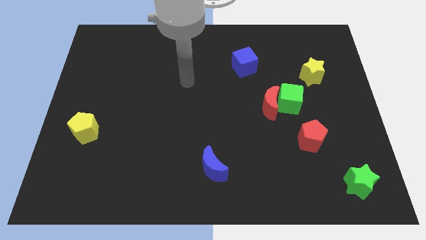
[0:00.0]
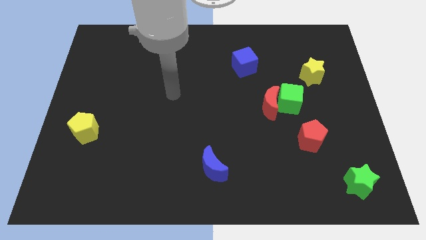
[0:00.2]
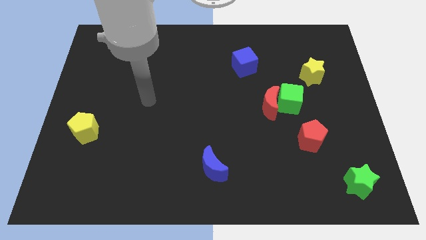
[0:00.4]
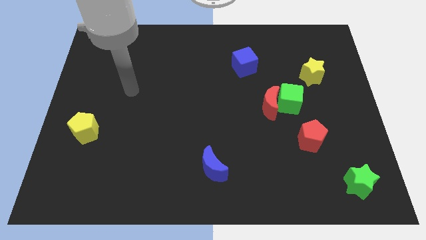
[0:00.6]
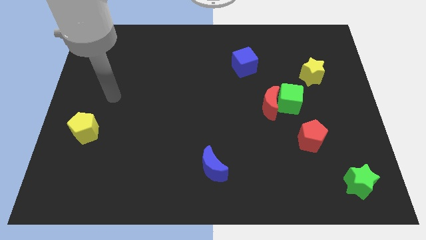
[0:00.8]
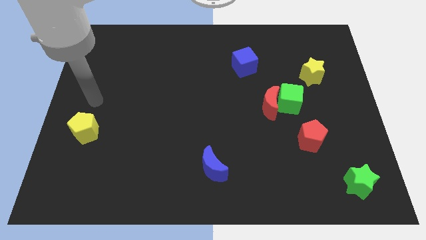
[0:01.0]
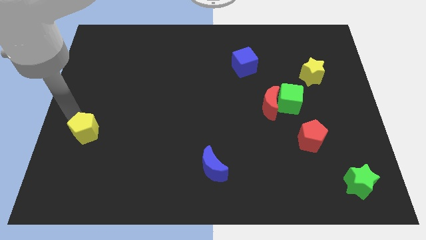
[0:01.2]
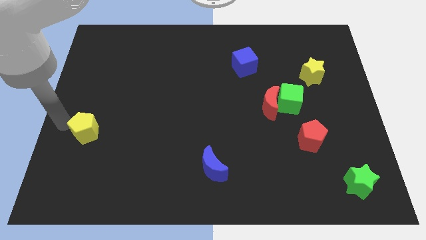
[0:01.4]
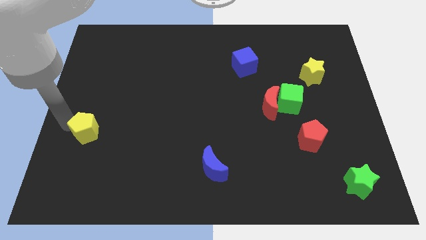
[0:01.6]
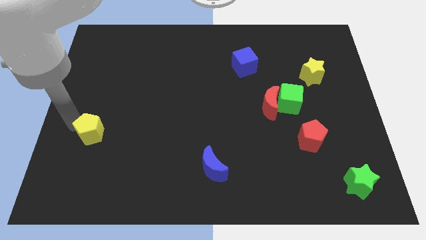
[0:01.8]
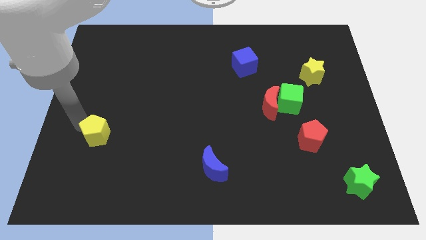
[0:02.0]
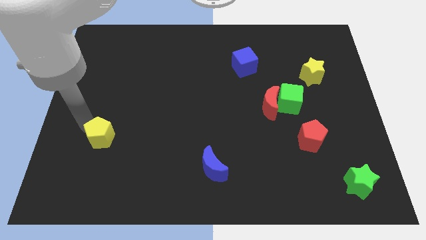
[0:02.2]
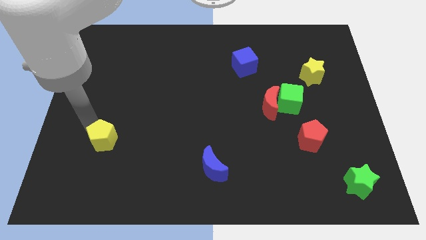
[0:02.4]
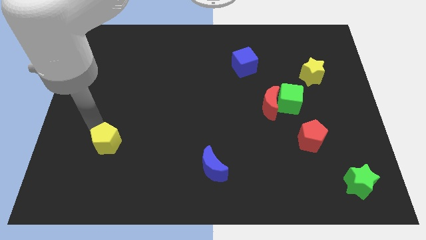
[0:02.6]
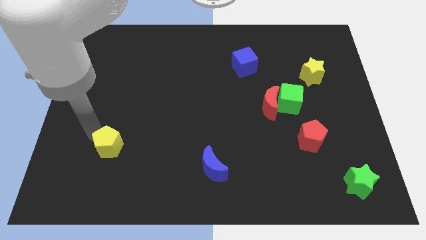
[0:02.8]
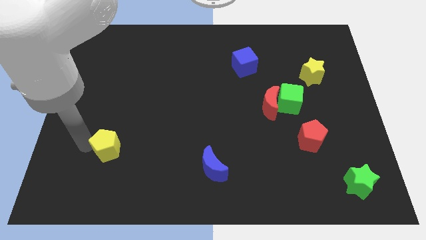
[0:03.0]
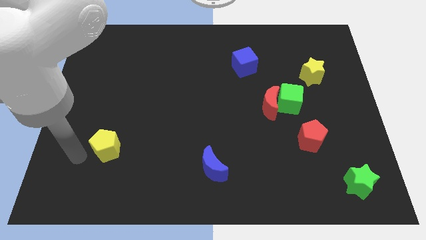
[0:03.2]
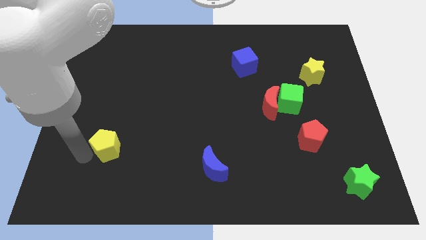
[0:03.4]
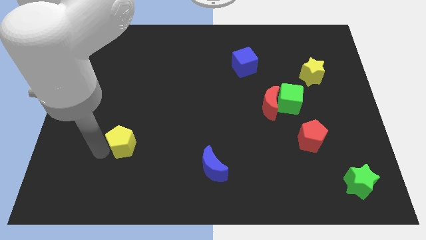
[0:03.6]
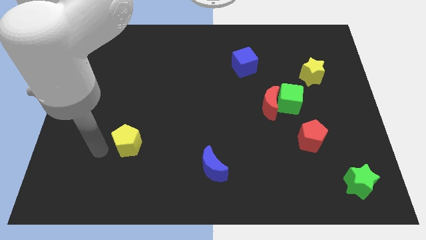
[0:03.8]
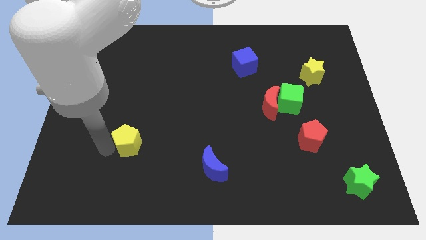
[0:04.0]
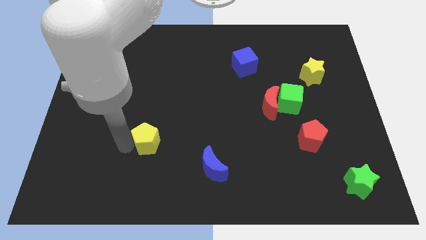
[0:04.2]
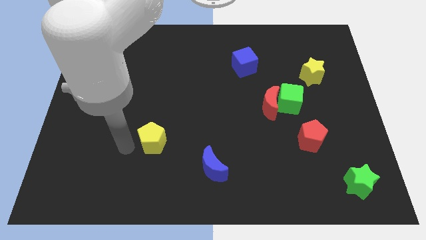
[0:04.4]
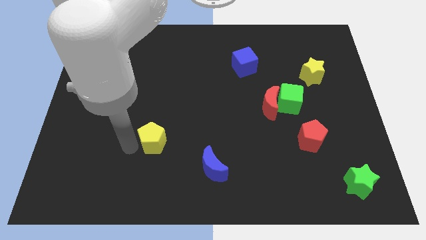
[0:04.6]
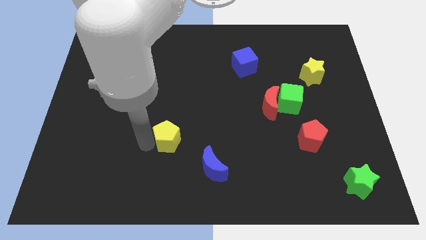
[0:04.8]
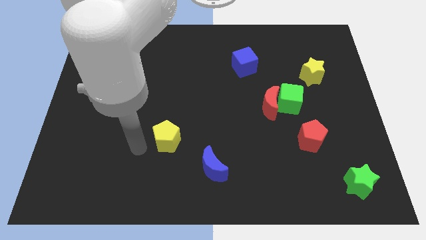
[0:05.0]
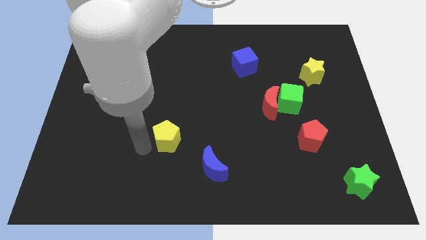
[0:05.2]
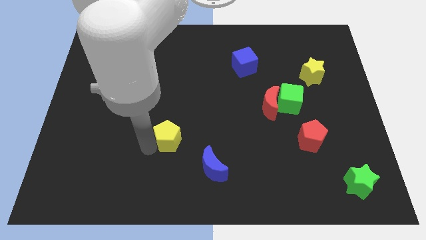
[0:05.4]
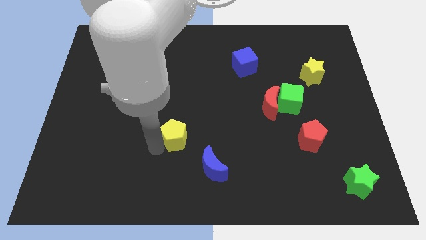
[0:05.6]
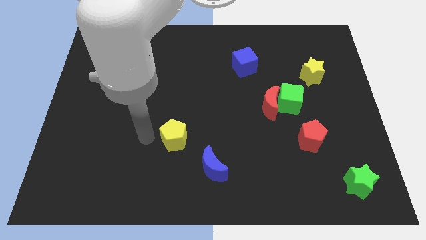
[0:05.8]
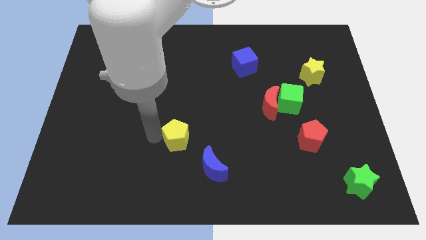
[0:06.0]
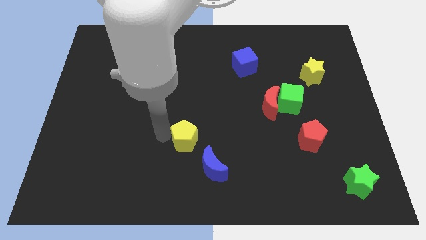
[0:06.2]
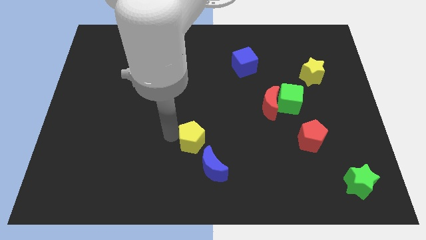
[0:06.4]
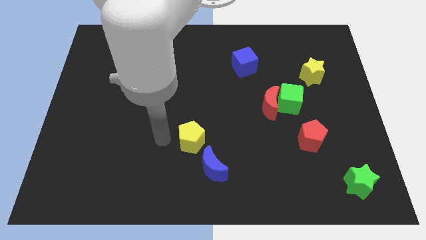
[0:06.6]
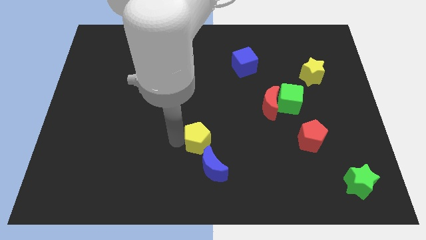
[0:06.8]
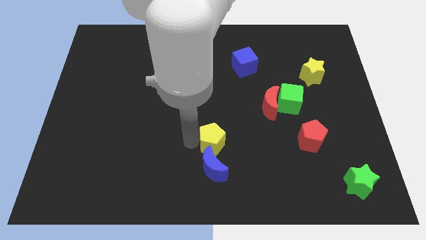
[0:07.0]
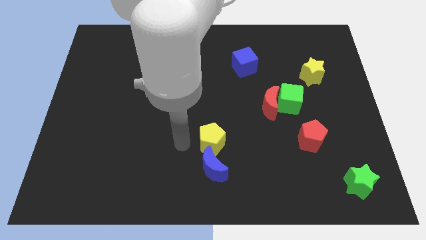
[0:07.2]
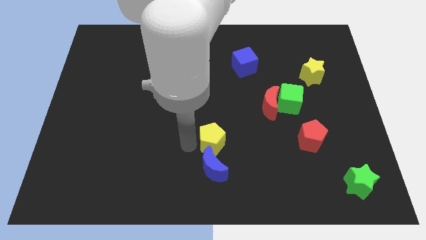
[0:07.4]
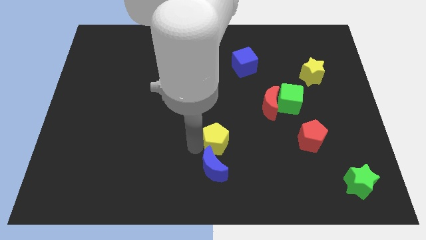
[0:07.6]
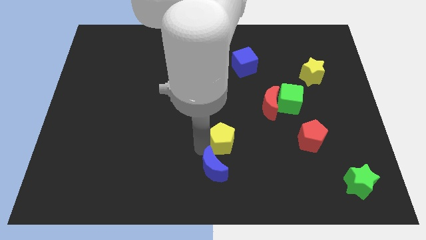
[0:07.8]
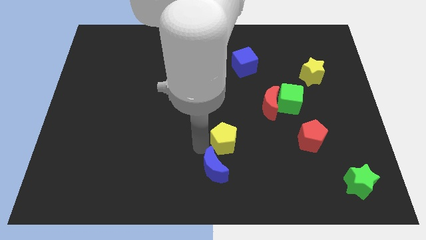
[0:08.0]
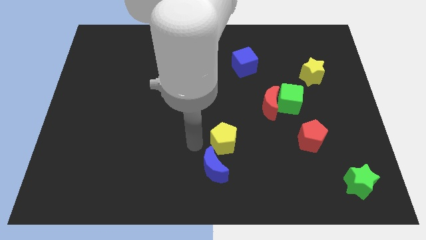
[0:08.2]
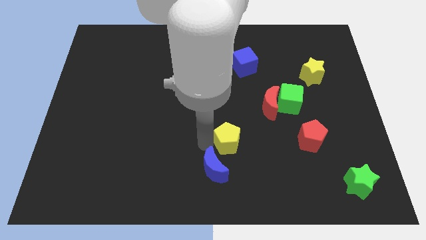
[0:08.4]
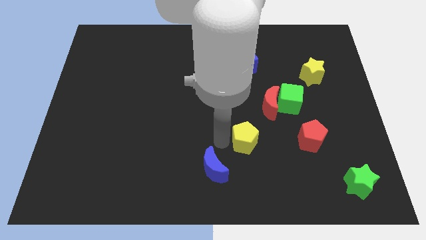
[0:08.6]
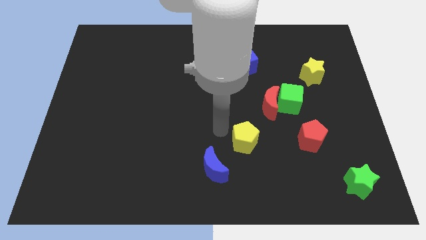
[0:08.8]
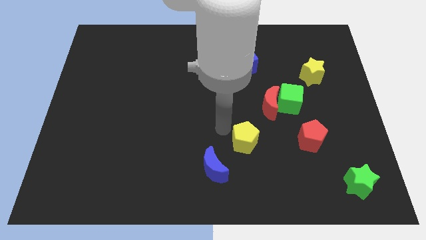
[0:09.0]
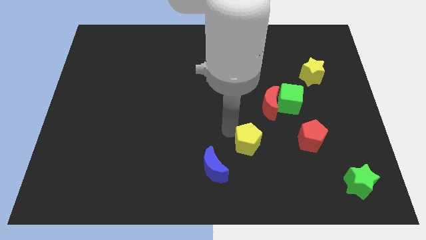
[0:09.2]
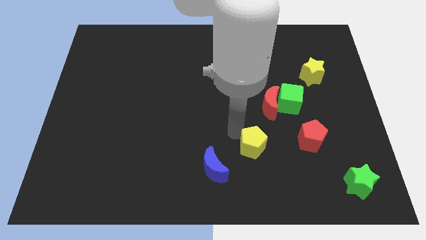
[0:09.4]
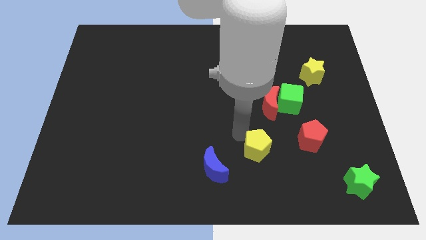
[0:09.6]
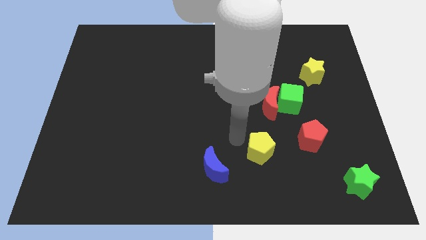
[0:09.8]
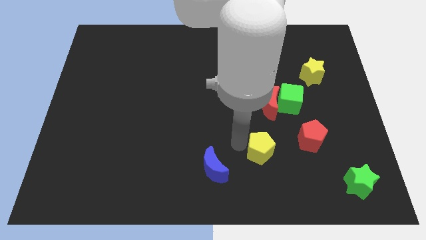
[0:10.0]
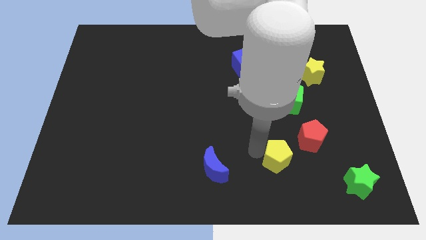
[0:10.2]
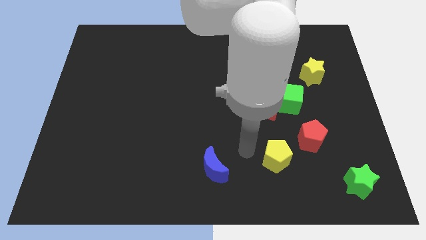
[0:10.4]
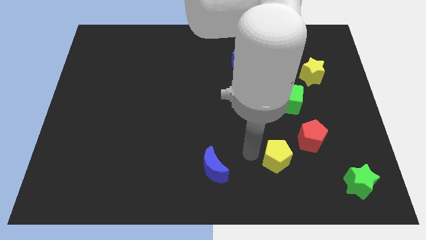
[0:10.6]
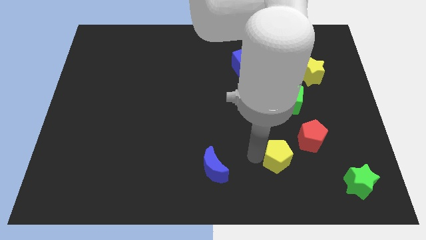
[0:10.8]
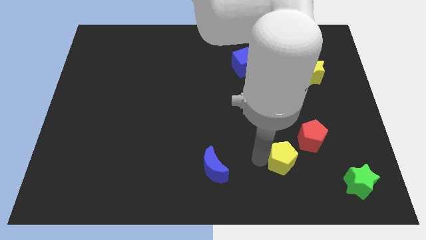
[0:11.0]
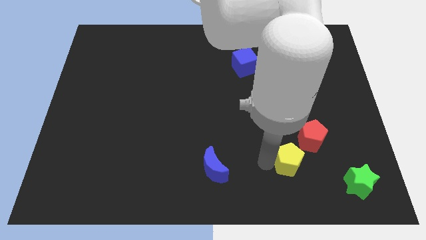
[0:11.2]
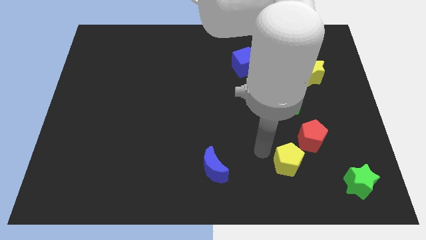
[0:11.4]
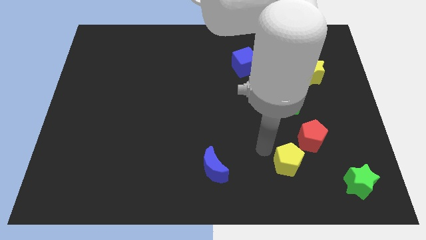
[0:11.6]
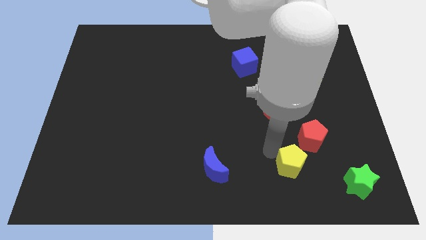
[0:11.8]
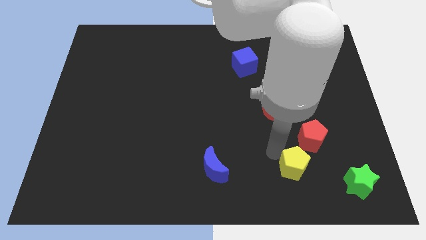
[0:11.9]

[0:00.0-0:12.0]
move the yellow pentagon to the bottom side of the red pentagon
